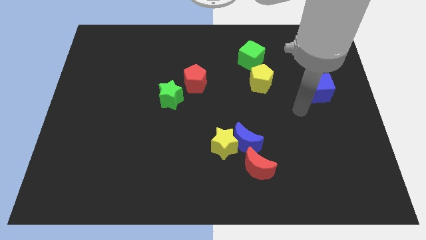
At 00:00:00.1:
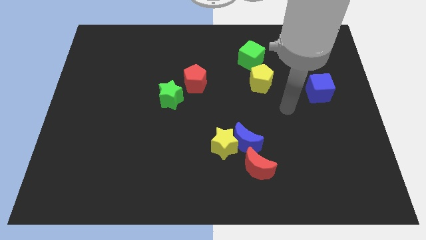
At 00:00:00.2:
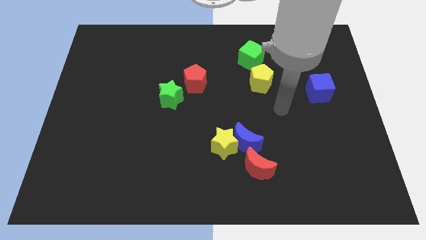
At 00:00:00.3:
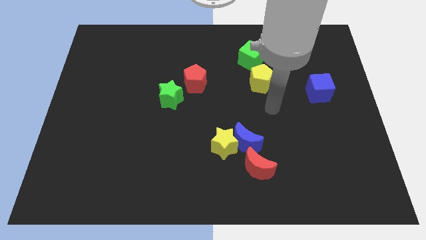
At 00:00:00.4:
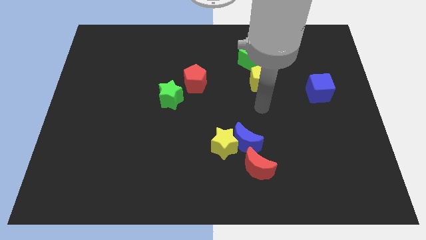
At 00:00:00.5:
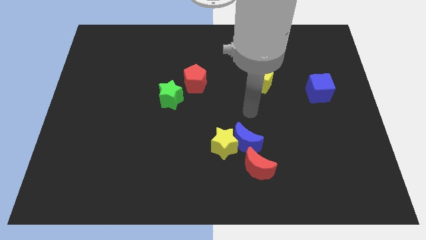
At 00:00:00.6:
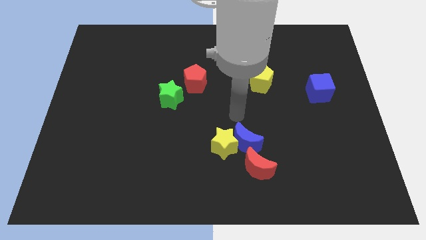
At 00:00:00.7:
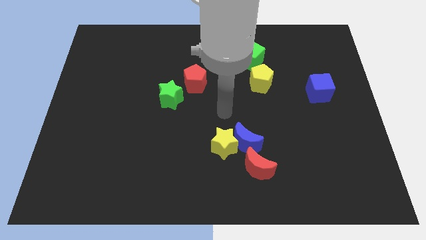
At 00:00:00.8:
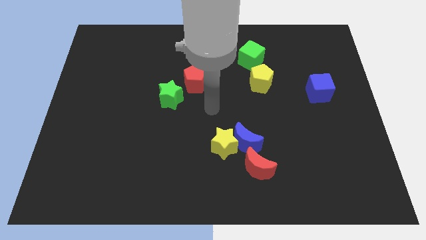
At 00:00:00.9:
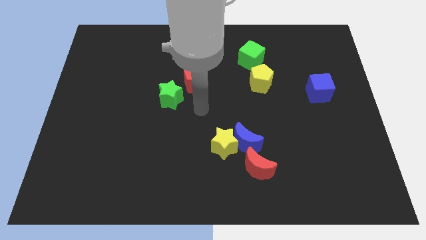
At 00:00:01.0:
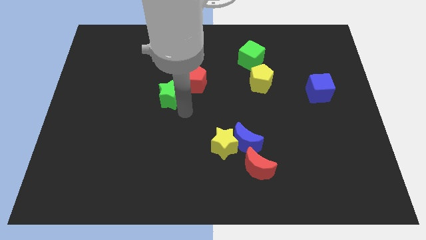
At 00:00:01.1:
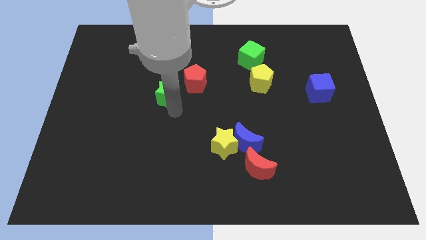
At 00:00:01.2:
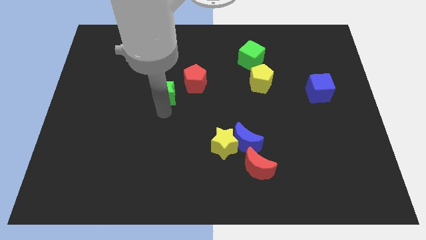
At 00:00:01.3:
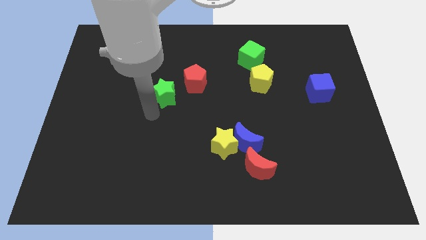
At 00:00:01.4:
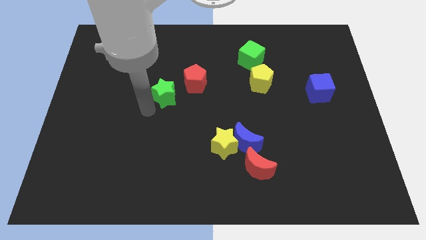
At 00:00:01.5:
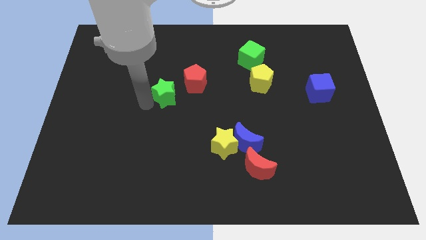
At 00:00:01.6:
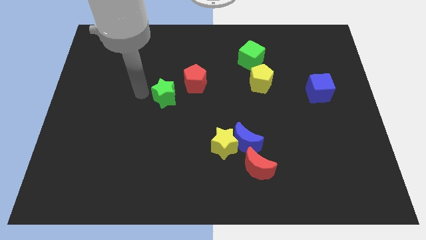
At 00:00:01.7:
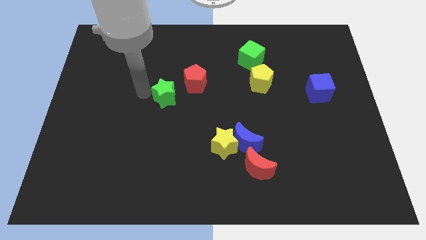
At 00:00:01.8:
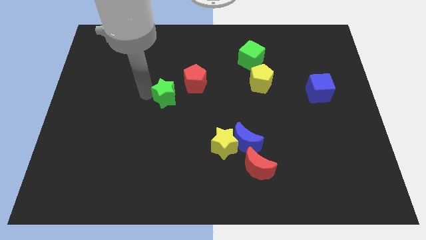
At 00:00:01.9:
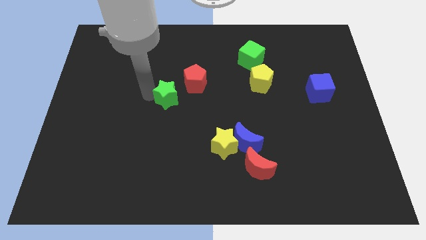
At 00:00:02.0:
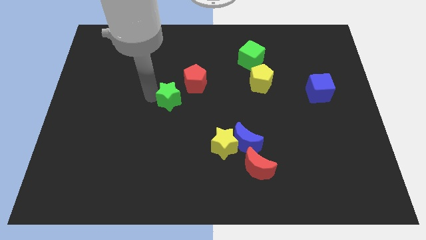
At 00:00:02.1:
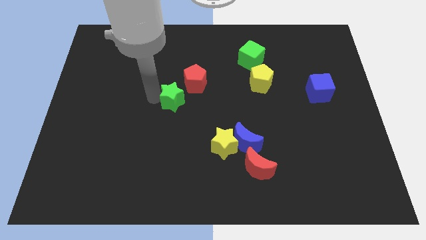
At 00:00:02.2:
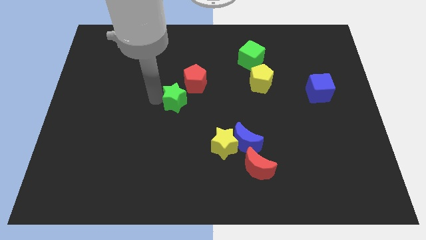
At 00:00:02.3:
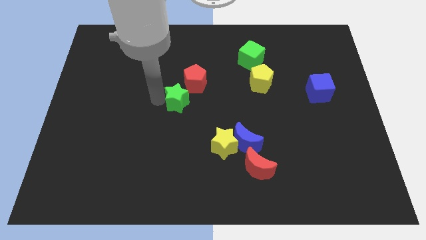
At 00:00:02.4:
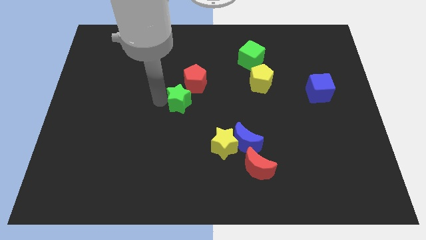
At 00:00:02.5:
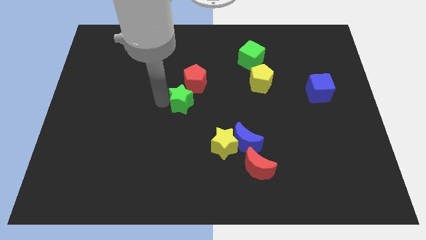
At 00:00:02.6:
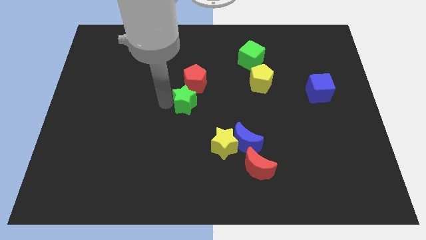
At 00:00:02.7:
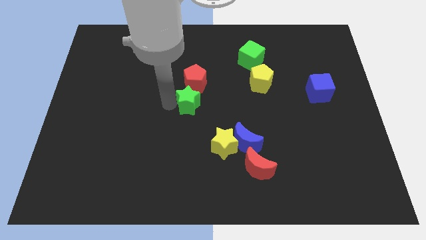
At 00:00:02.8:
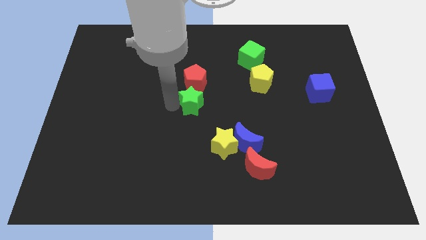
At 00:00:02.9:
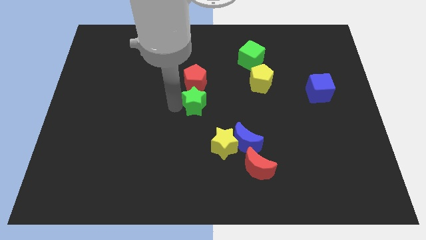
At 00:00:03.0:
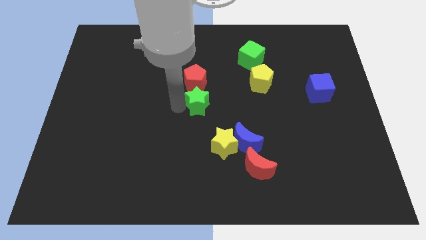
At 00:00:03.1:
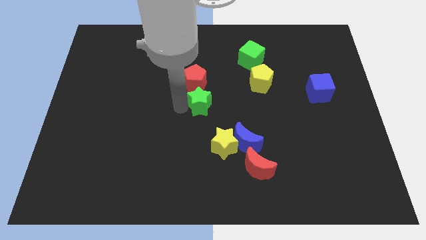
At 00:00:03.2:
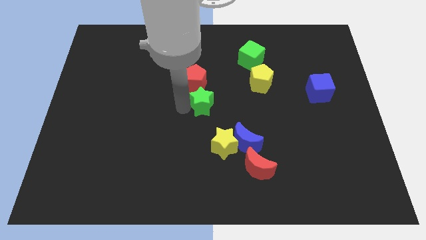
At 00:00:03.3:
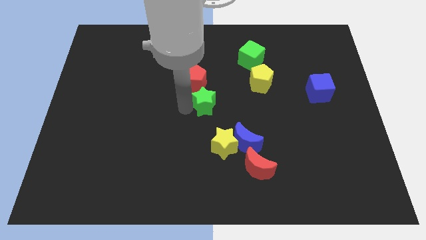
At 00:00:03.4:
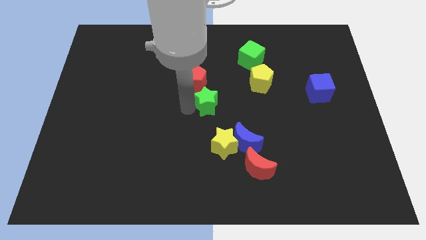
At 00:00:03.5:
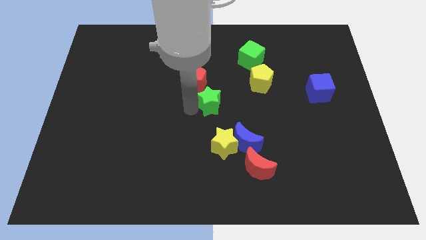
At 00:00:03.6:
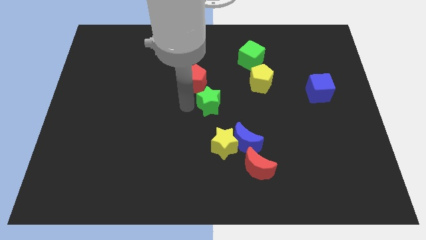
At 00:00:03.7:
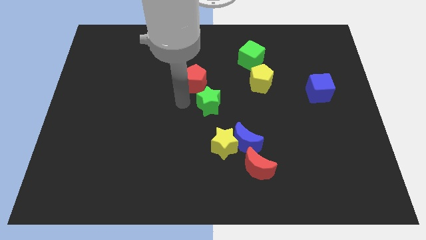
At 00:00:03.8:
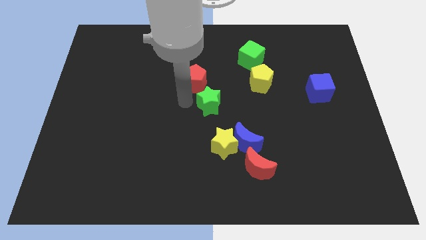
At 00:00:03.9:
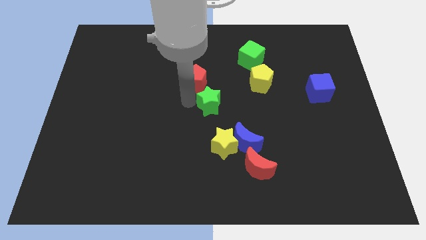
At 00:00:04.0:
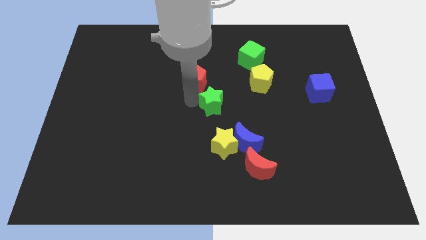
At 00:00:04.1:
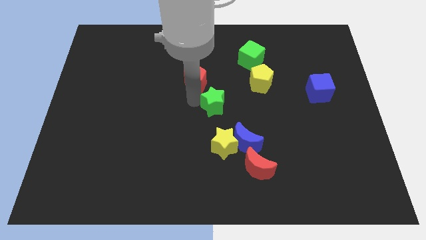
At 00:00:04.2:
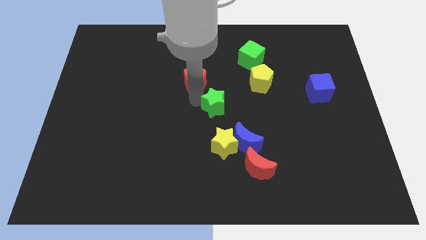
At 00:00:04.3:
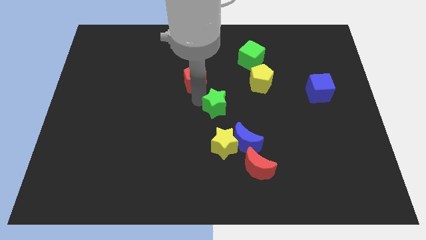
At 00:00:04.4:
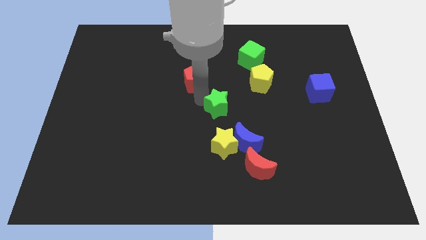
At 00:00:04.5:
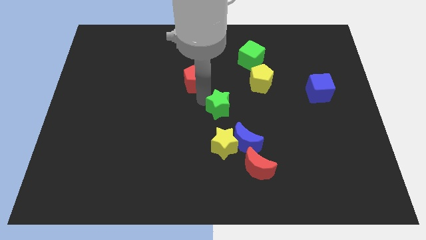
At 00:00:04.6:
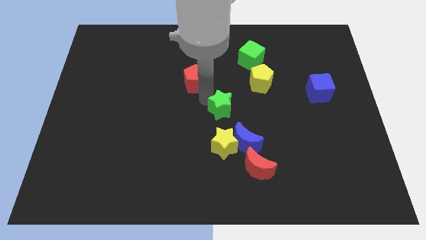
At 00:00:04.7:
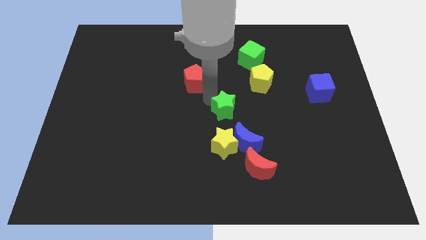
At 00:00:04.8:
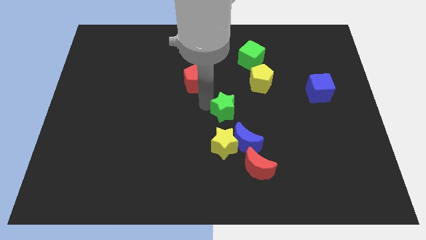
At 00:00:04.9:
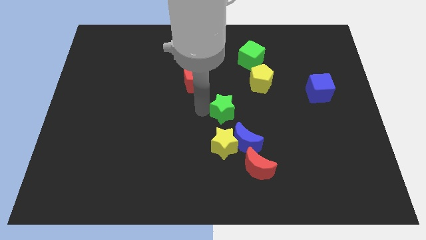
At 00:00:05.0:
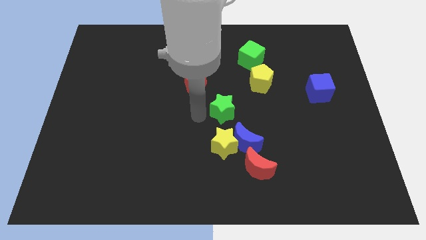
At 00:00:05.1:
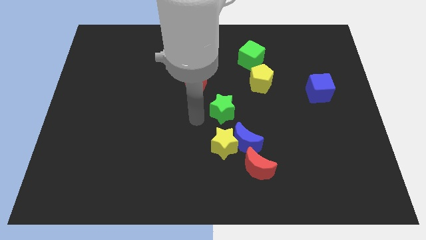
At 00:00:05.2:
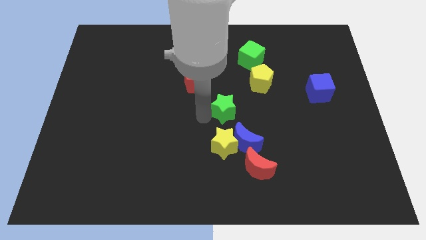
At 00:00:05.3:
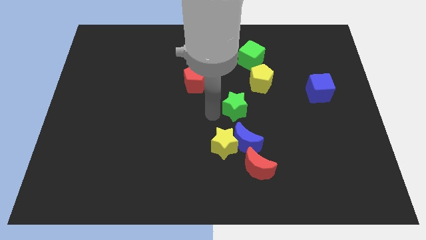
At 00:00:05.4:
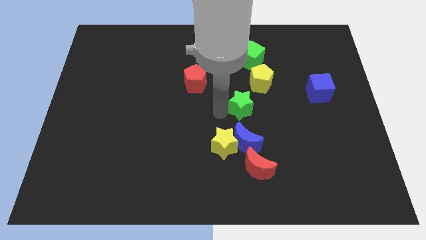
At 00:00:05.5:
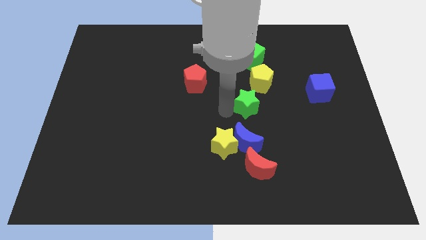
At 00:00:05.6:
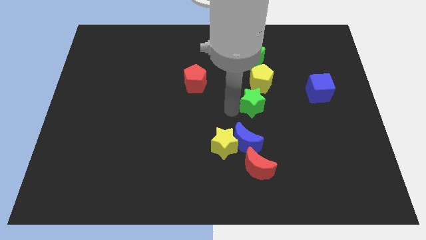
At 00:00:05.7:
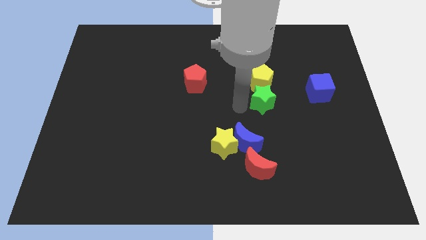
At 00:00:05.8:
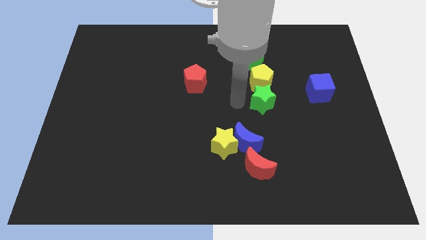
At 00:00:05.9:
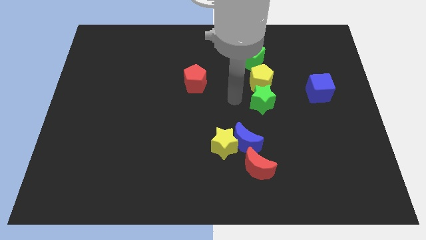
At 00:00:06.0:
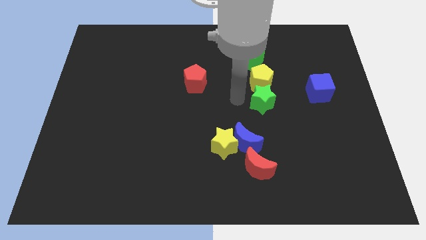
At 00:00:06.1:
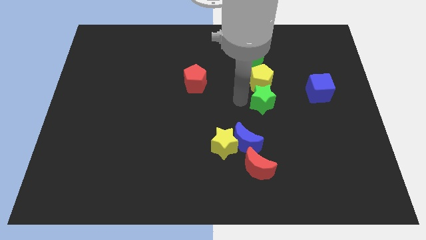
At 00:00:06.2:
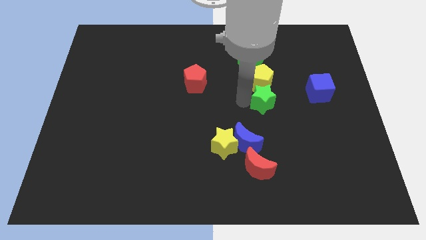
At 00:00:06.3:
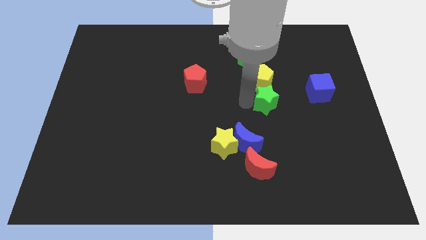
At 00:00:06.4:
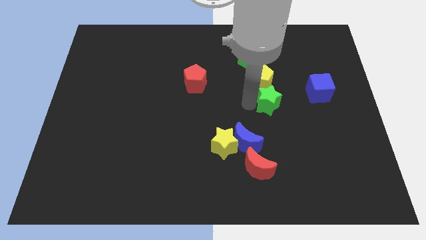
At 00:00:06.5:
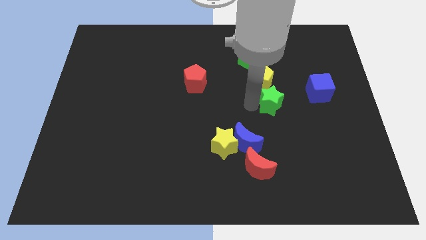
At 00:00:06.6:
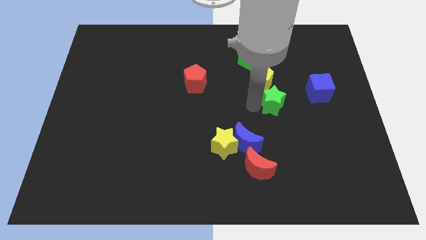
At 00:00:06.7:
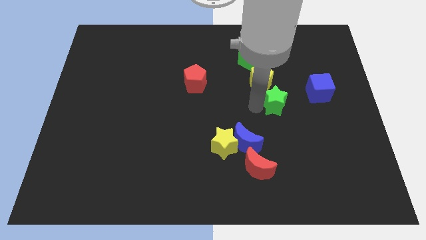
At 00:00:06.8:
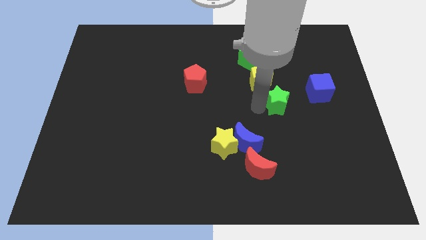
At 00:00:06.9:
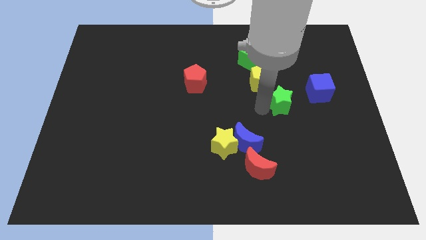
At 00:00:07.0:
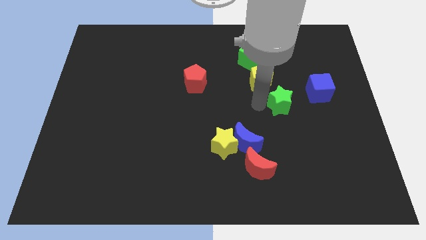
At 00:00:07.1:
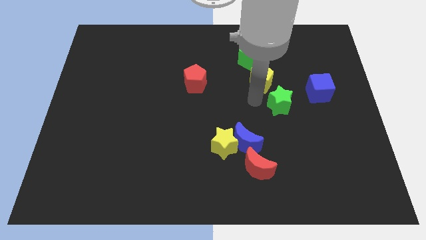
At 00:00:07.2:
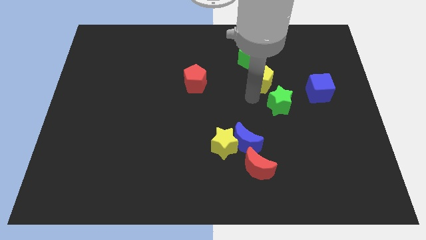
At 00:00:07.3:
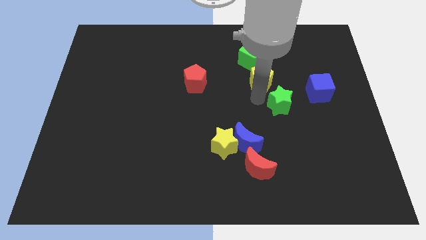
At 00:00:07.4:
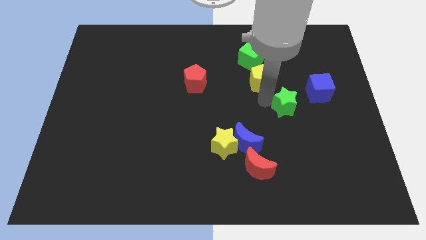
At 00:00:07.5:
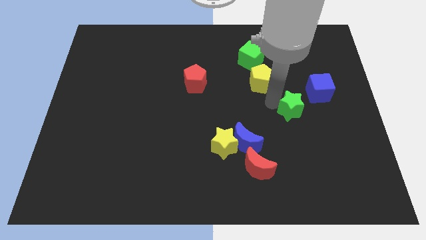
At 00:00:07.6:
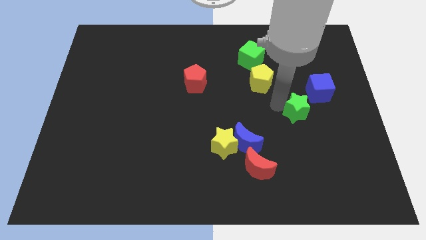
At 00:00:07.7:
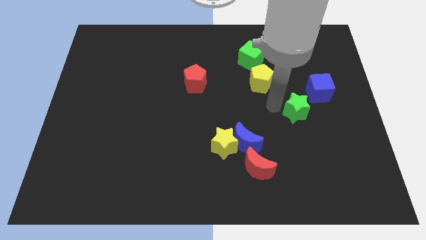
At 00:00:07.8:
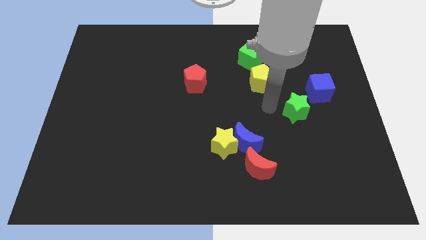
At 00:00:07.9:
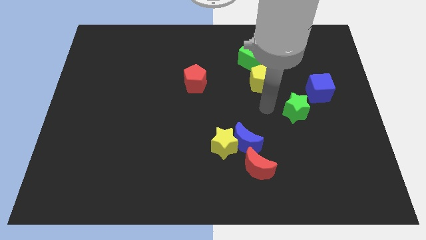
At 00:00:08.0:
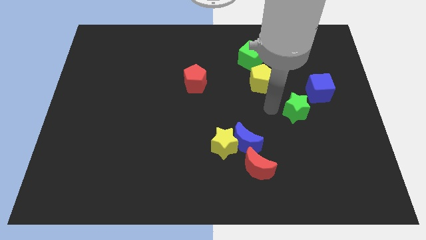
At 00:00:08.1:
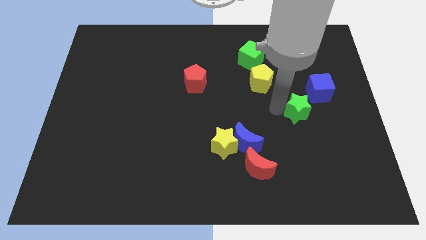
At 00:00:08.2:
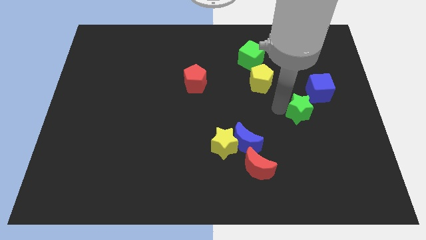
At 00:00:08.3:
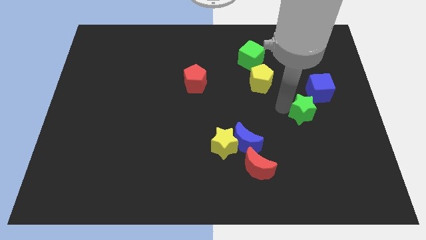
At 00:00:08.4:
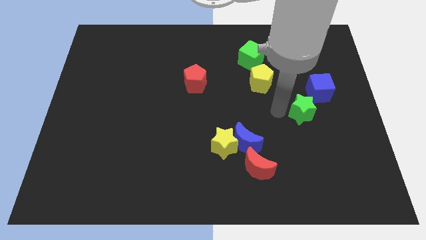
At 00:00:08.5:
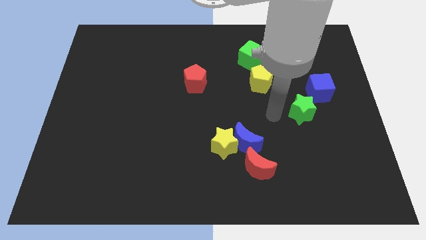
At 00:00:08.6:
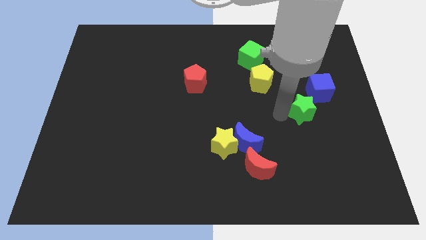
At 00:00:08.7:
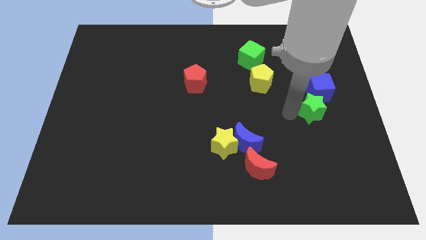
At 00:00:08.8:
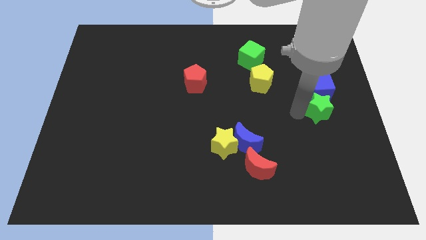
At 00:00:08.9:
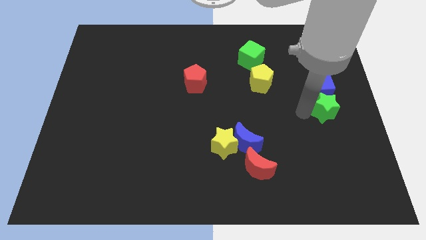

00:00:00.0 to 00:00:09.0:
push the green star to the right side of the board
